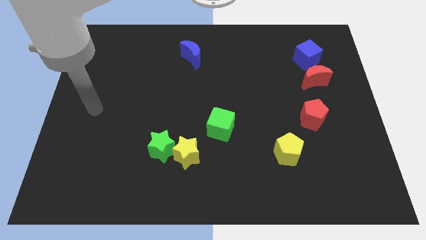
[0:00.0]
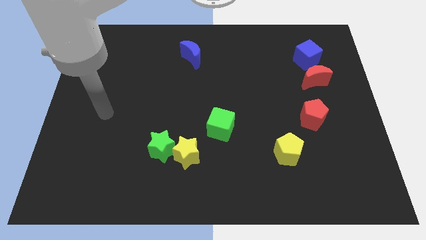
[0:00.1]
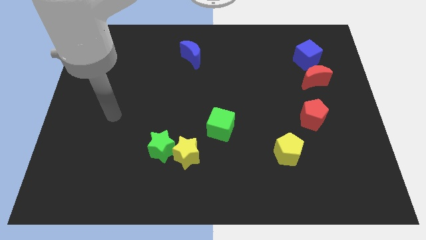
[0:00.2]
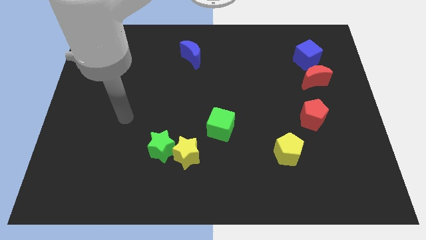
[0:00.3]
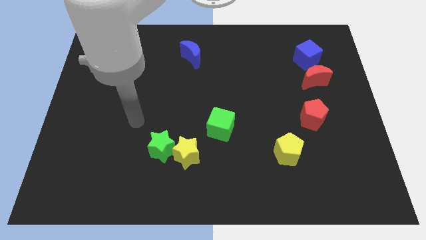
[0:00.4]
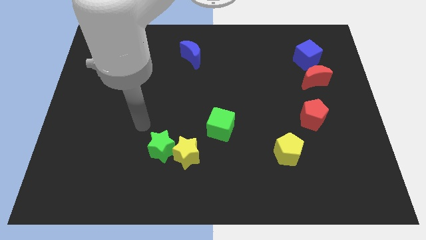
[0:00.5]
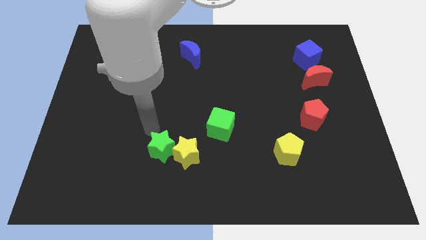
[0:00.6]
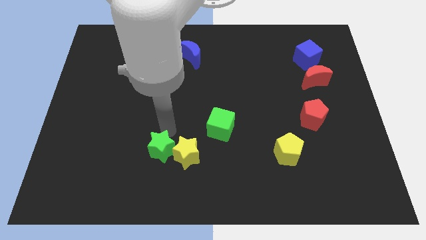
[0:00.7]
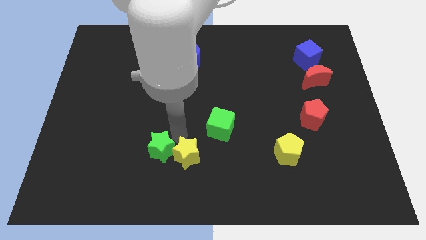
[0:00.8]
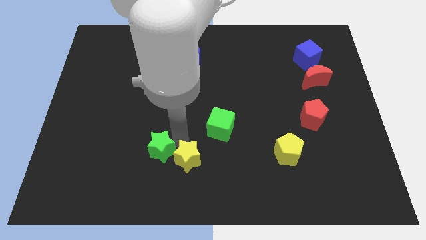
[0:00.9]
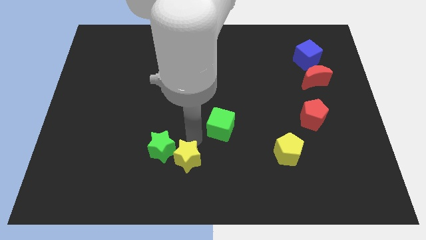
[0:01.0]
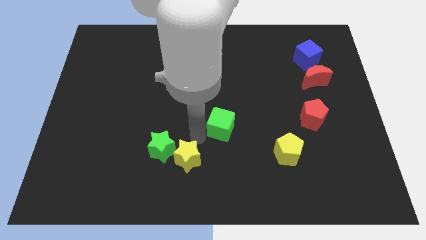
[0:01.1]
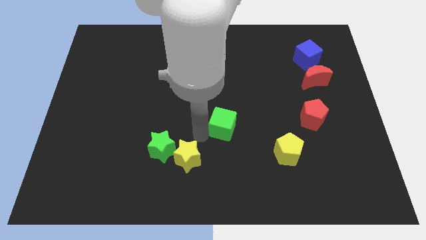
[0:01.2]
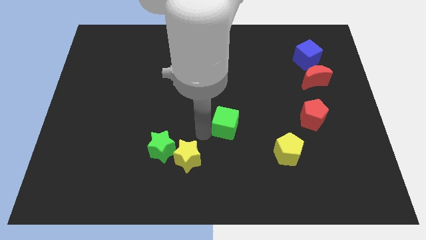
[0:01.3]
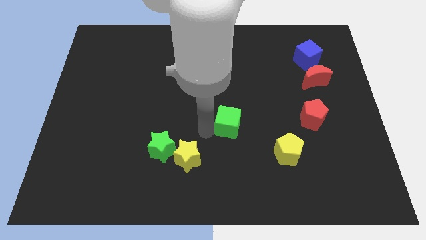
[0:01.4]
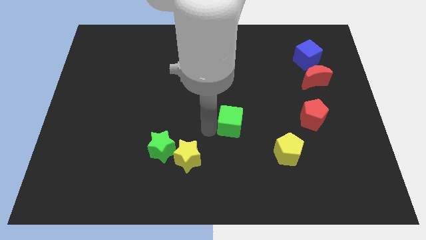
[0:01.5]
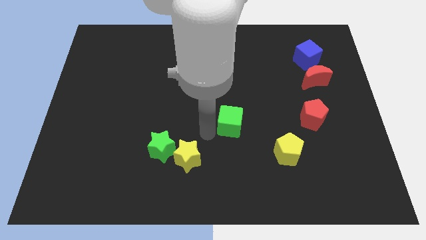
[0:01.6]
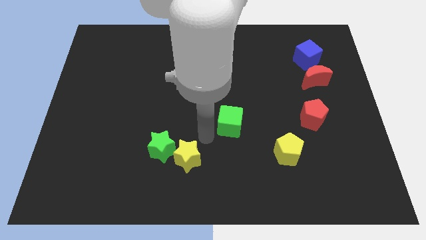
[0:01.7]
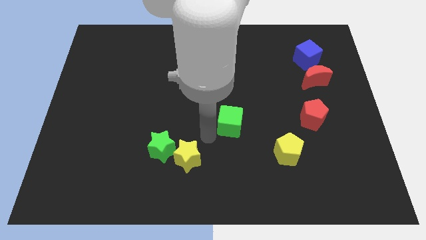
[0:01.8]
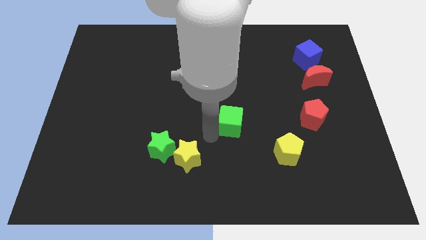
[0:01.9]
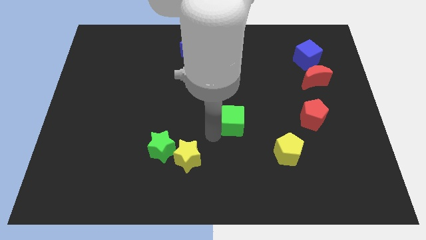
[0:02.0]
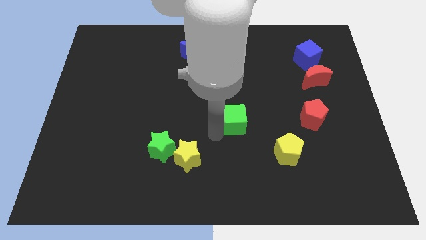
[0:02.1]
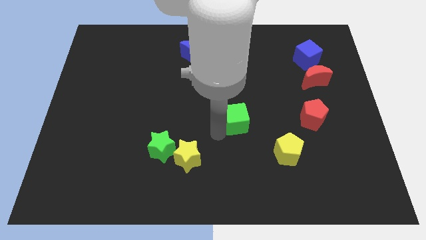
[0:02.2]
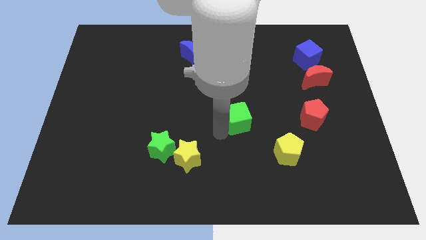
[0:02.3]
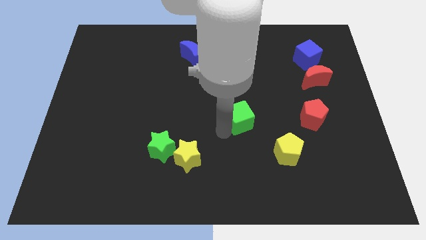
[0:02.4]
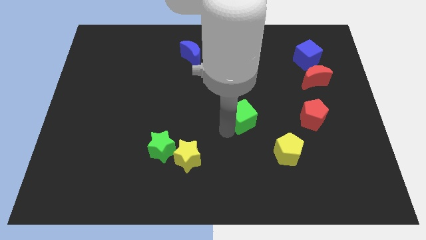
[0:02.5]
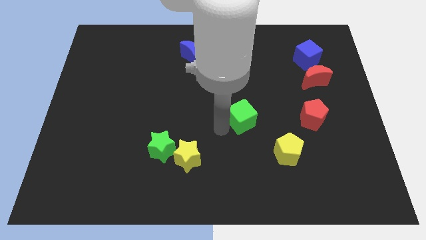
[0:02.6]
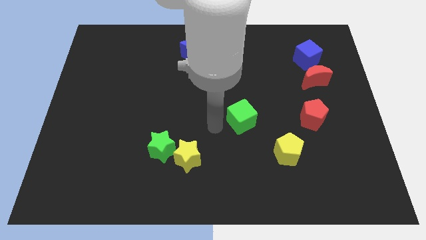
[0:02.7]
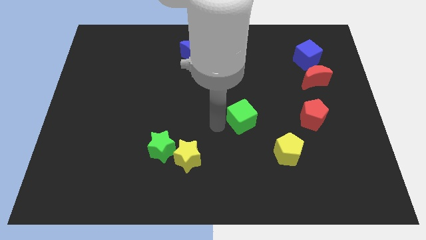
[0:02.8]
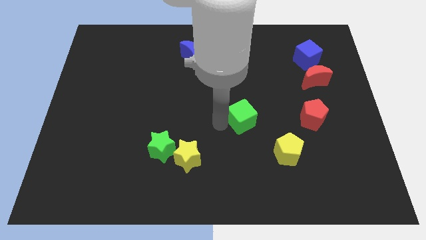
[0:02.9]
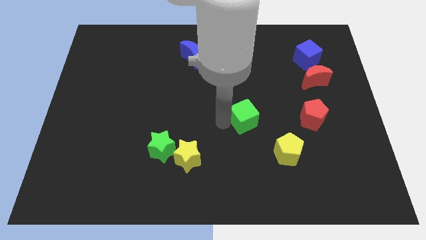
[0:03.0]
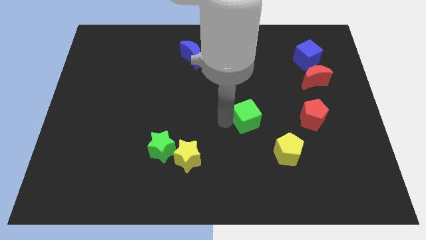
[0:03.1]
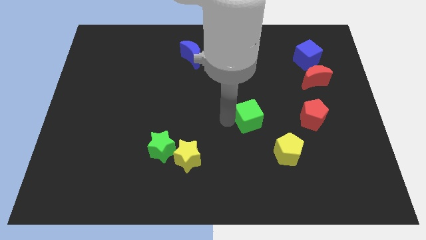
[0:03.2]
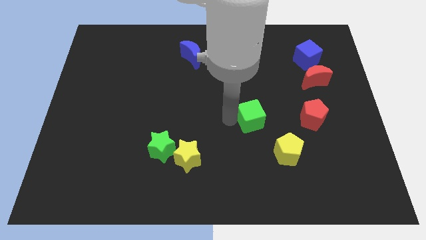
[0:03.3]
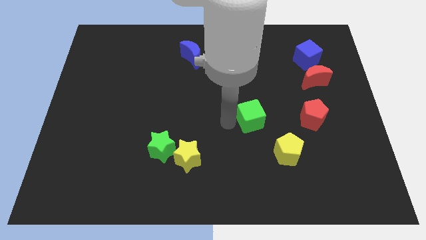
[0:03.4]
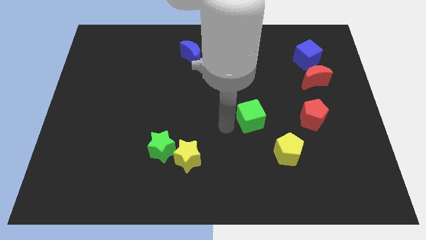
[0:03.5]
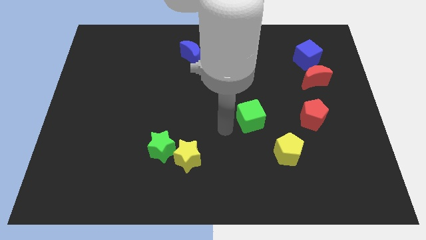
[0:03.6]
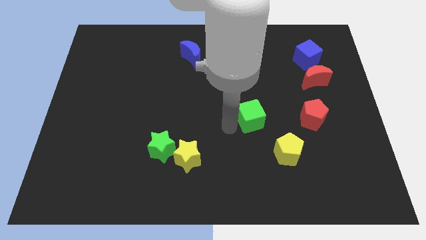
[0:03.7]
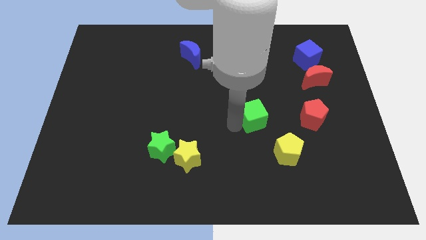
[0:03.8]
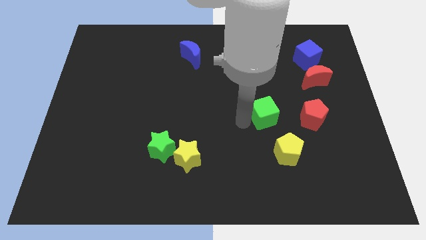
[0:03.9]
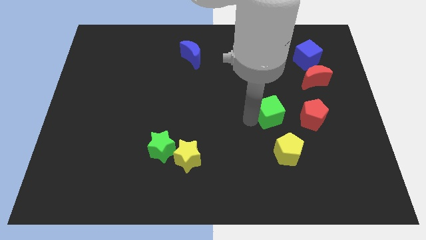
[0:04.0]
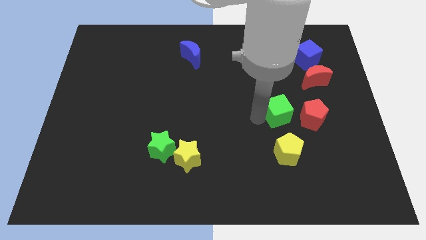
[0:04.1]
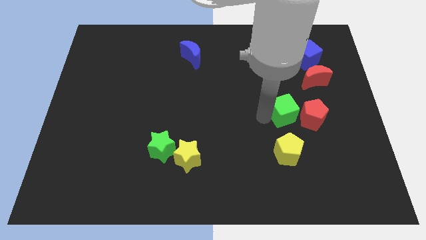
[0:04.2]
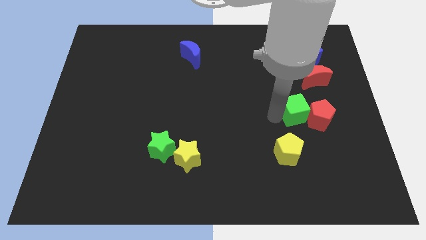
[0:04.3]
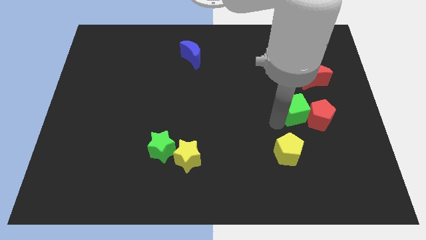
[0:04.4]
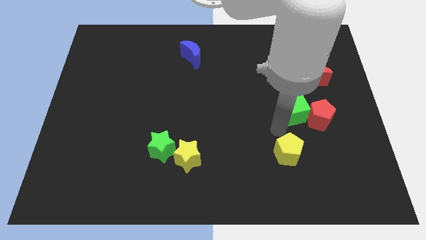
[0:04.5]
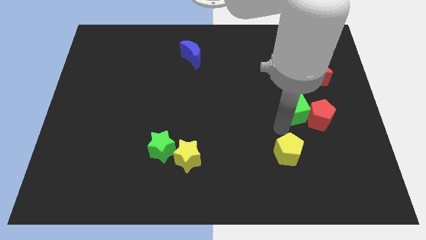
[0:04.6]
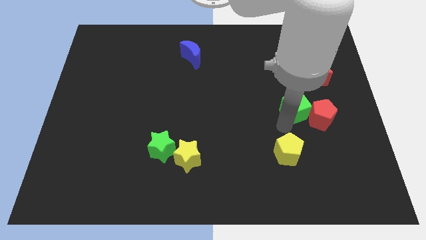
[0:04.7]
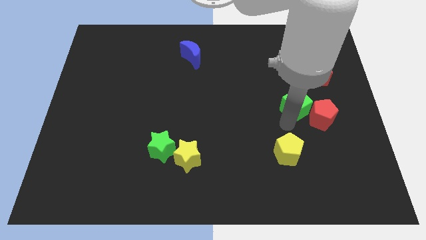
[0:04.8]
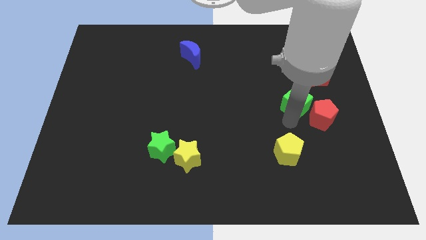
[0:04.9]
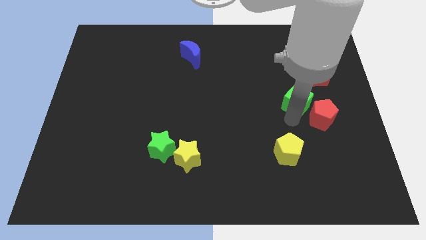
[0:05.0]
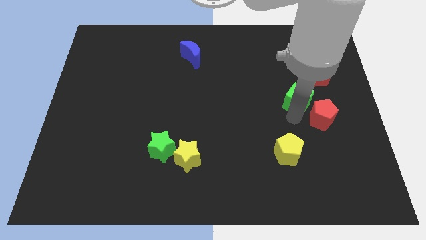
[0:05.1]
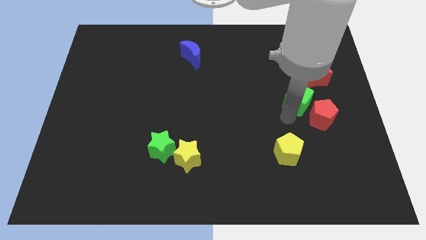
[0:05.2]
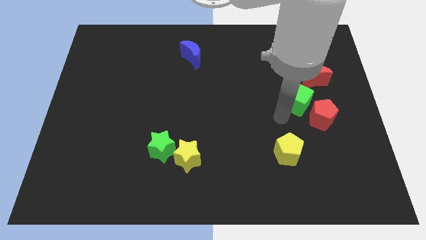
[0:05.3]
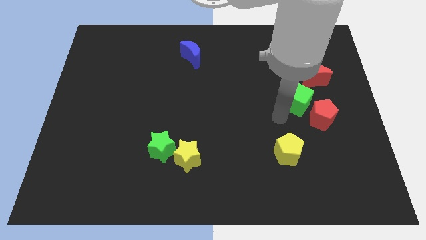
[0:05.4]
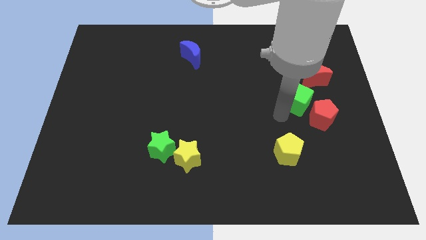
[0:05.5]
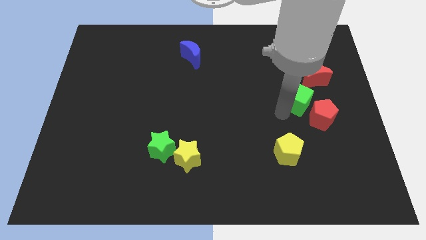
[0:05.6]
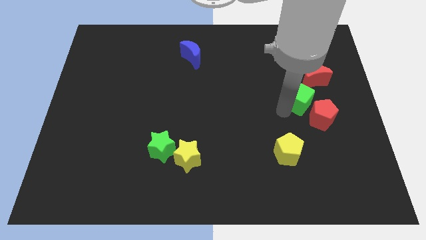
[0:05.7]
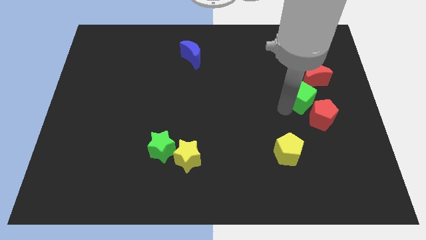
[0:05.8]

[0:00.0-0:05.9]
put the green cube to the bottom side of the blue cube
